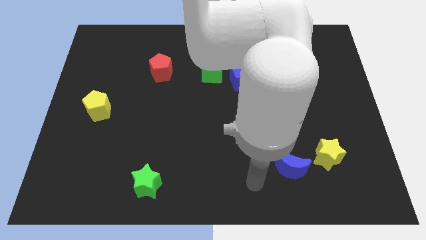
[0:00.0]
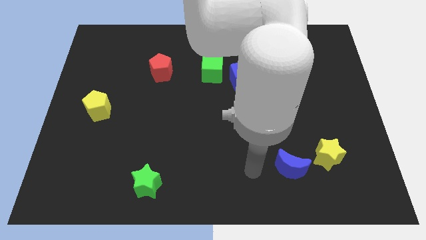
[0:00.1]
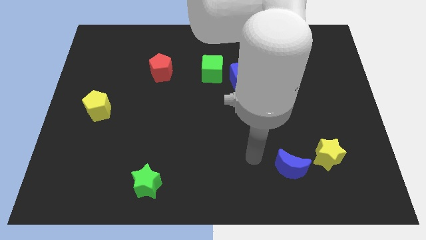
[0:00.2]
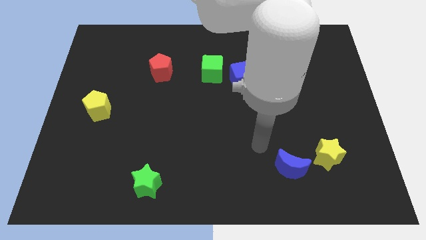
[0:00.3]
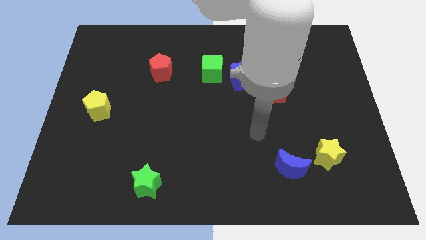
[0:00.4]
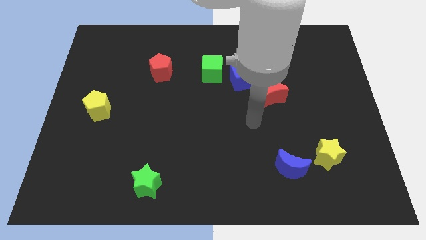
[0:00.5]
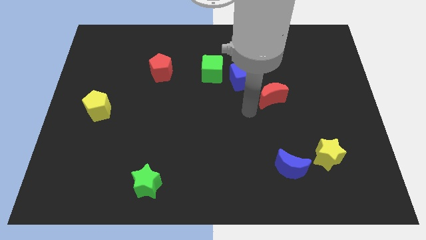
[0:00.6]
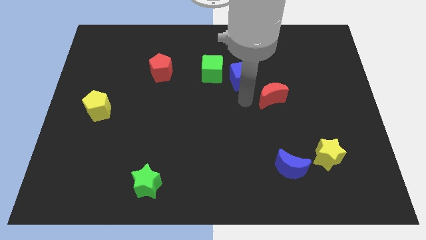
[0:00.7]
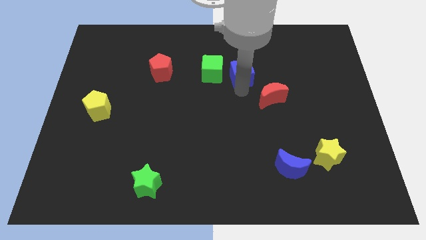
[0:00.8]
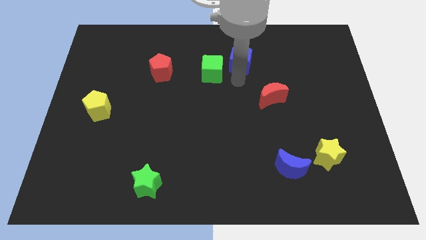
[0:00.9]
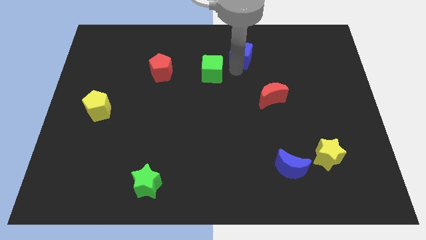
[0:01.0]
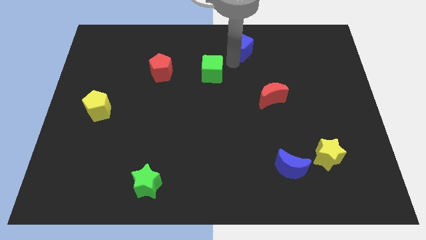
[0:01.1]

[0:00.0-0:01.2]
move the green cube away from the blue cube

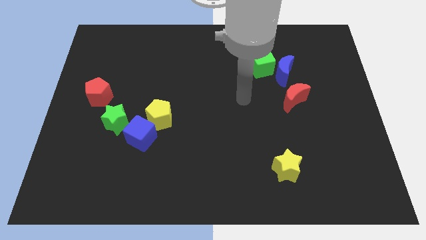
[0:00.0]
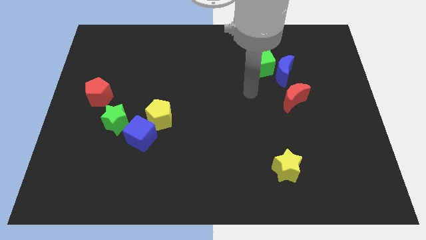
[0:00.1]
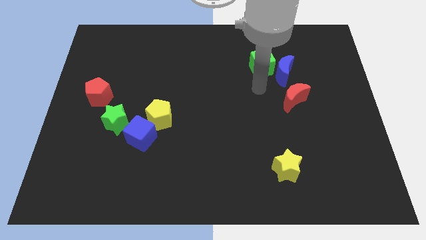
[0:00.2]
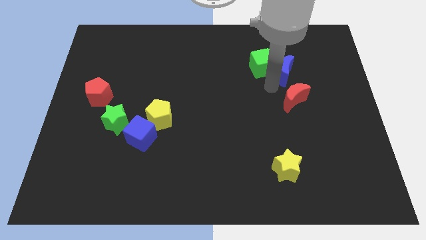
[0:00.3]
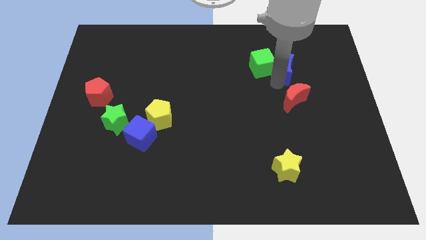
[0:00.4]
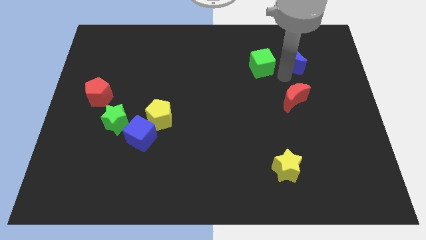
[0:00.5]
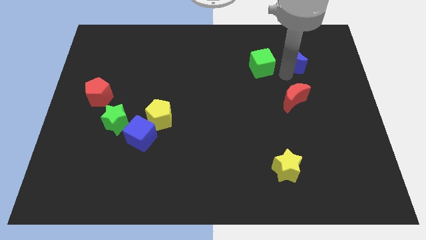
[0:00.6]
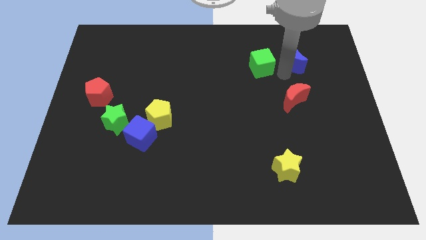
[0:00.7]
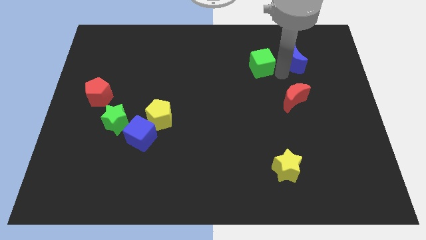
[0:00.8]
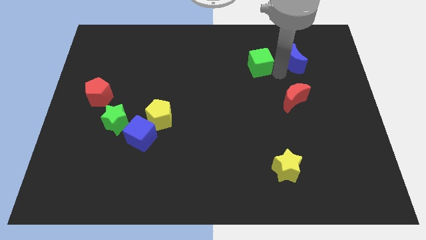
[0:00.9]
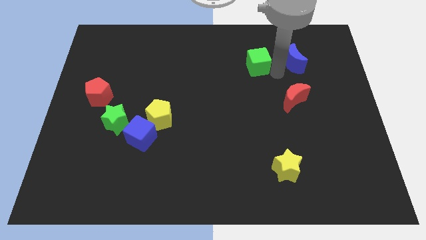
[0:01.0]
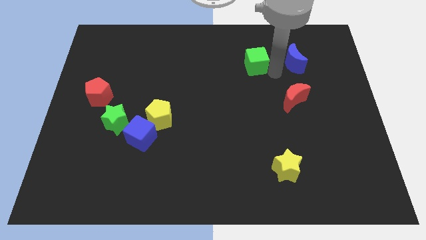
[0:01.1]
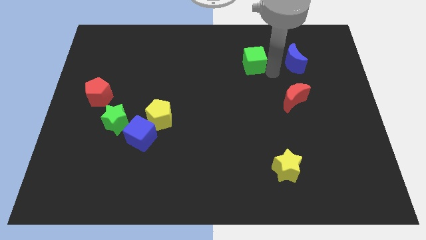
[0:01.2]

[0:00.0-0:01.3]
pull the green cube apart from the blue moon

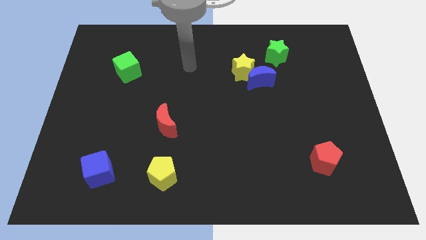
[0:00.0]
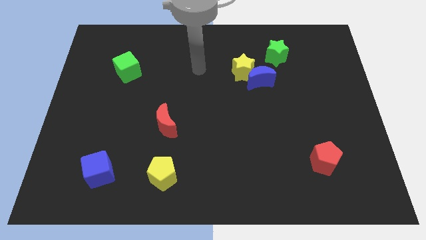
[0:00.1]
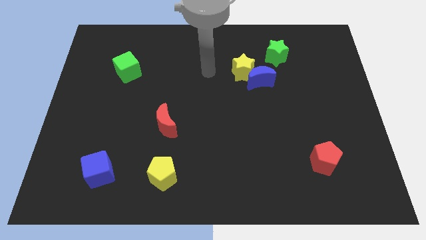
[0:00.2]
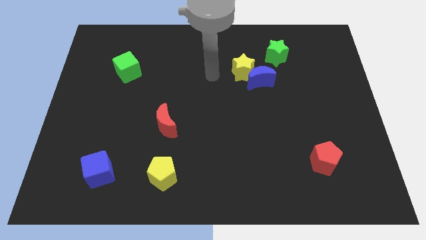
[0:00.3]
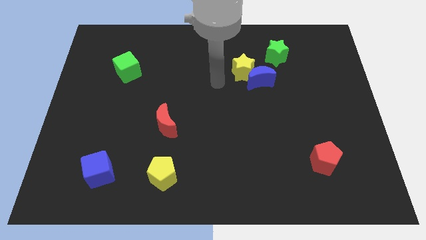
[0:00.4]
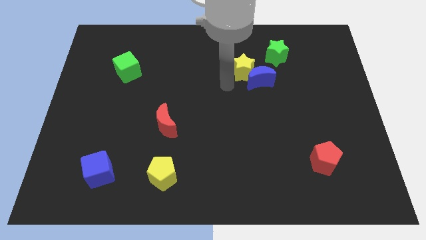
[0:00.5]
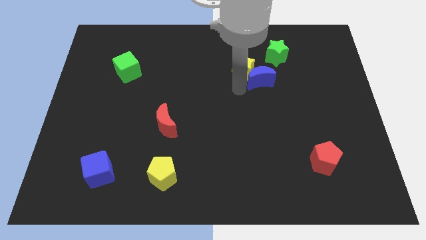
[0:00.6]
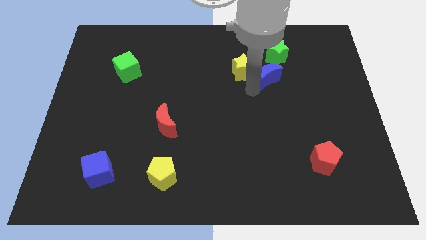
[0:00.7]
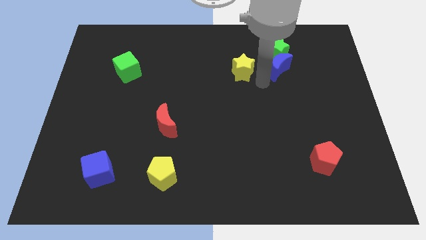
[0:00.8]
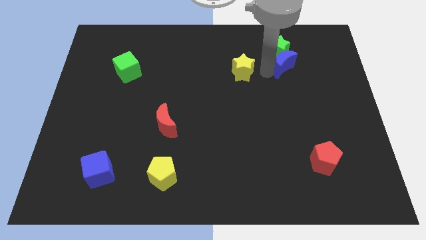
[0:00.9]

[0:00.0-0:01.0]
pull the yellow star apart from the blue moon

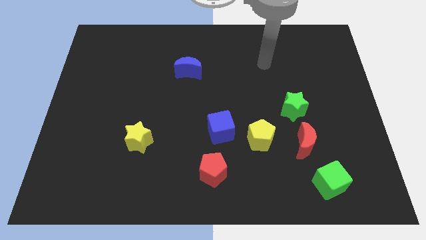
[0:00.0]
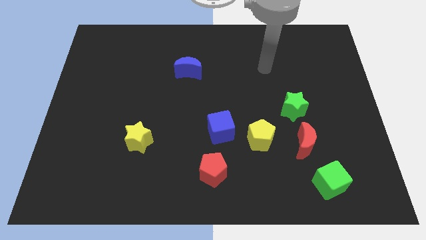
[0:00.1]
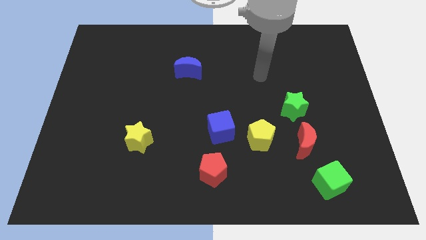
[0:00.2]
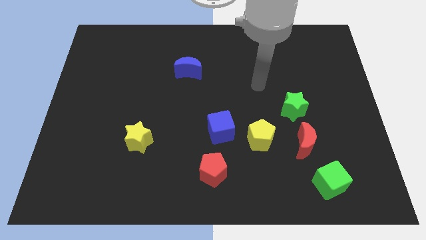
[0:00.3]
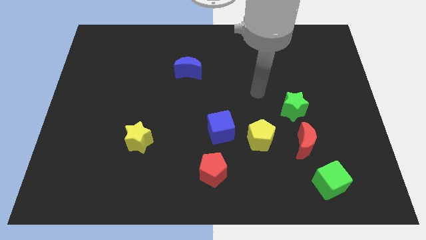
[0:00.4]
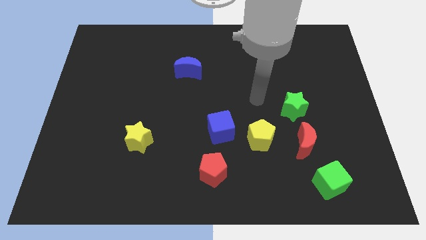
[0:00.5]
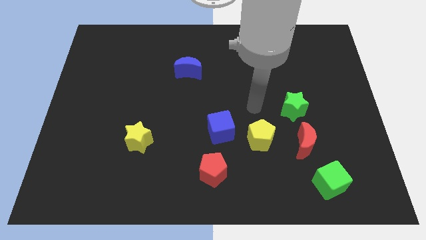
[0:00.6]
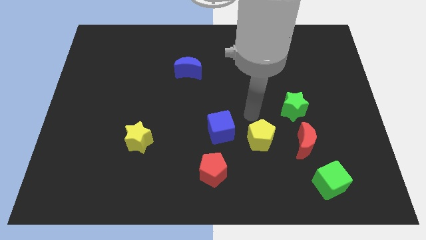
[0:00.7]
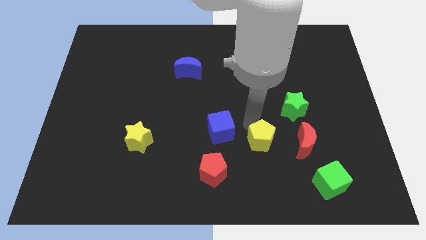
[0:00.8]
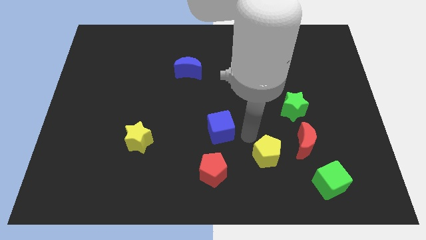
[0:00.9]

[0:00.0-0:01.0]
pull the blue cube apart from the yellow pentagon

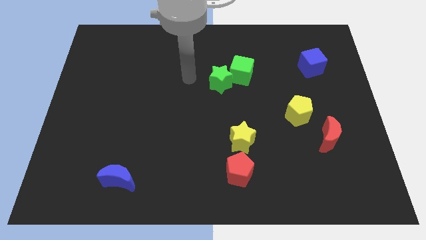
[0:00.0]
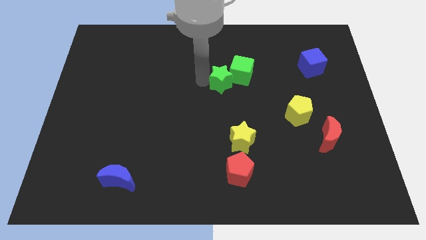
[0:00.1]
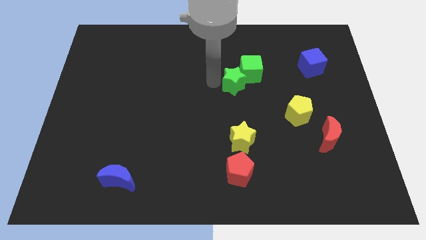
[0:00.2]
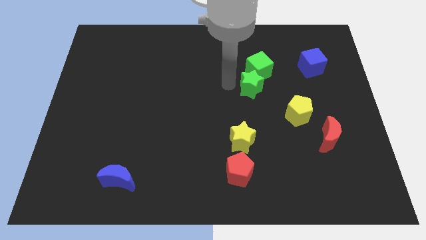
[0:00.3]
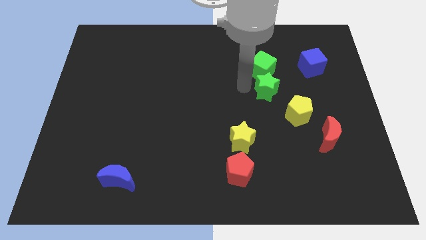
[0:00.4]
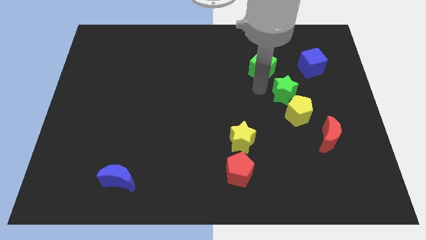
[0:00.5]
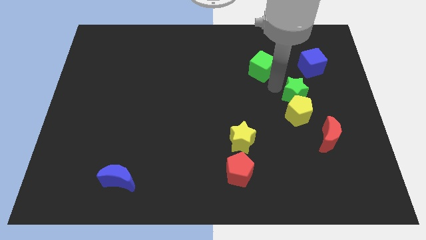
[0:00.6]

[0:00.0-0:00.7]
move the green cube away from the green star

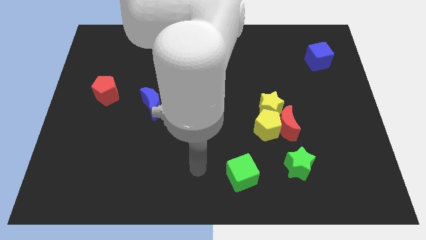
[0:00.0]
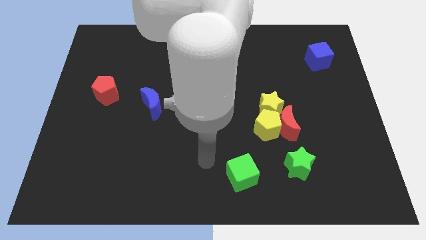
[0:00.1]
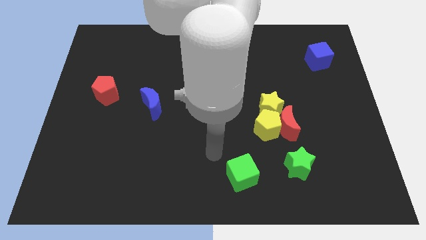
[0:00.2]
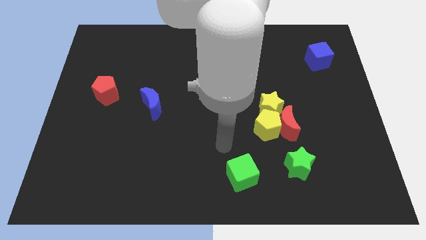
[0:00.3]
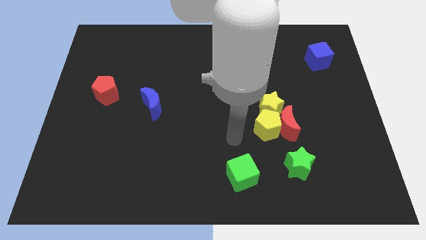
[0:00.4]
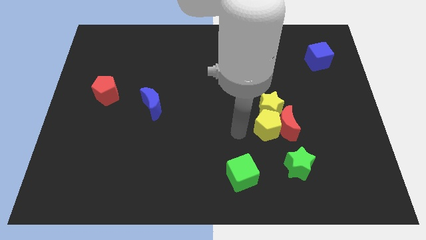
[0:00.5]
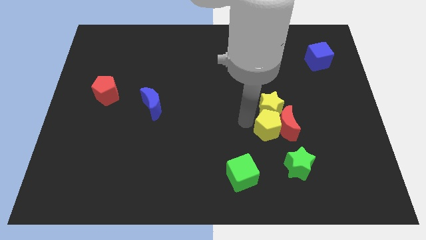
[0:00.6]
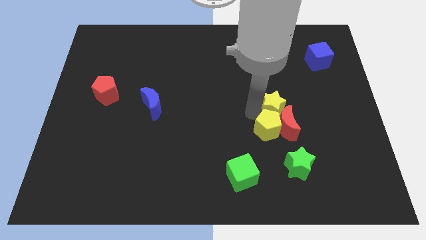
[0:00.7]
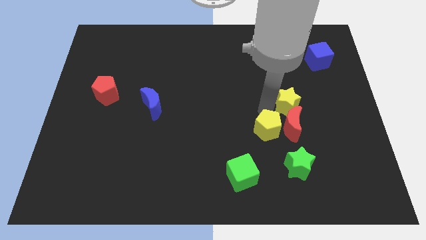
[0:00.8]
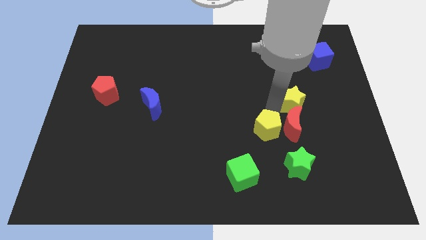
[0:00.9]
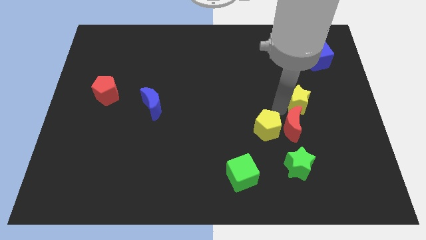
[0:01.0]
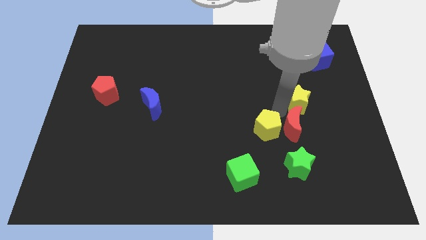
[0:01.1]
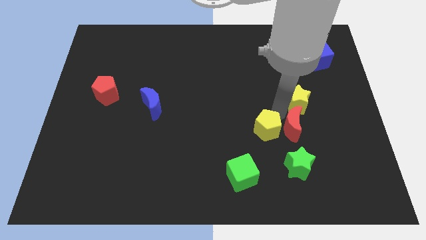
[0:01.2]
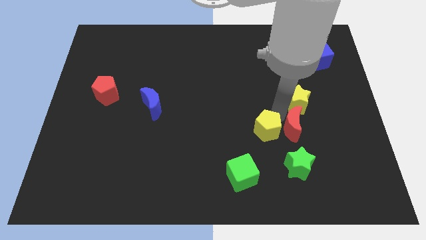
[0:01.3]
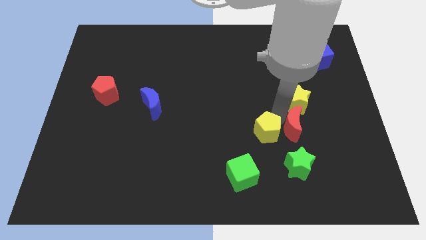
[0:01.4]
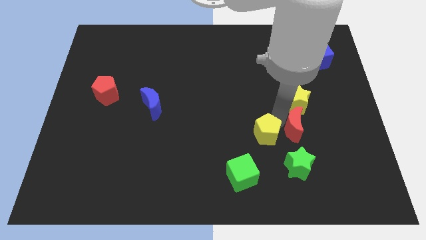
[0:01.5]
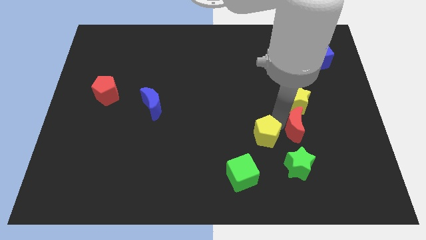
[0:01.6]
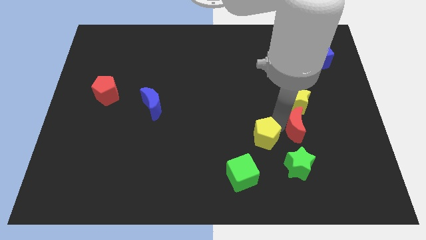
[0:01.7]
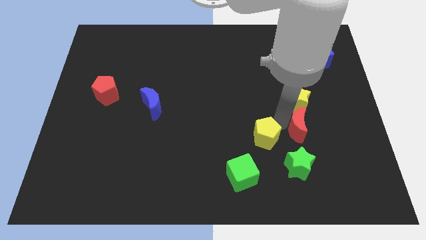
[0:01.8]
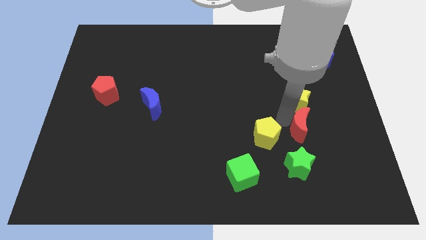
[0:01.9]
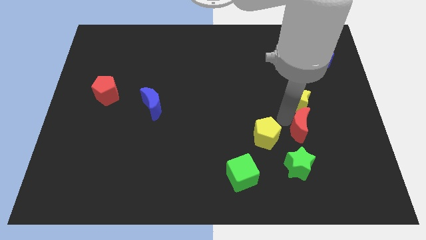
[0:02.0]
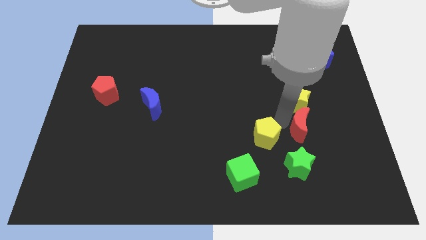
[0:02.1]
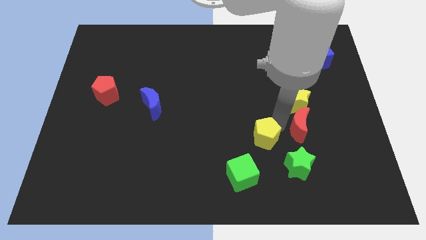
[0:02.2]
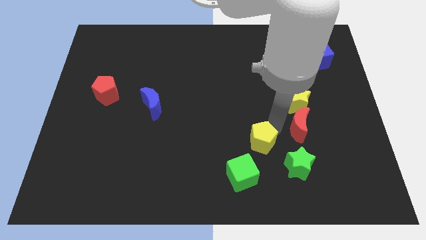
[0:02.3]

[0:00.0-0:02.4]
separate the yellow pentagon from the red moon and yellow star

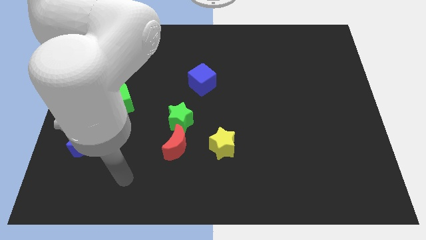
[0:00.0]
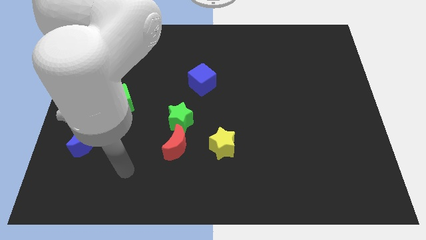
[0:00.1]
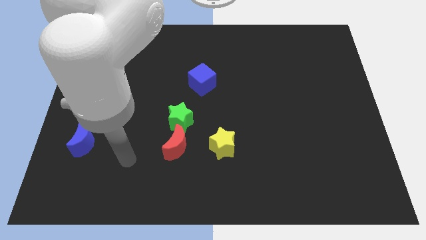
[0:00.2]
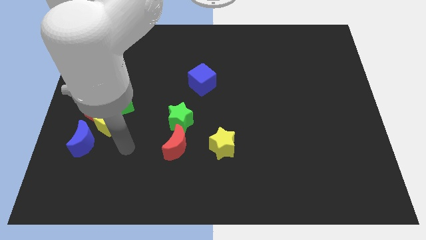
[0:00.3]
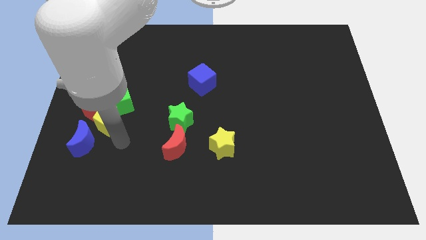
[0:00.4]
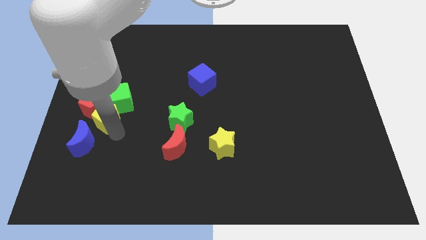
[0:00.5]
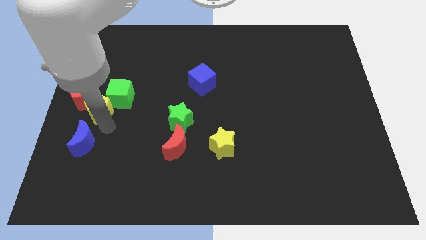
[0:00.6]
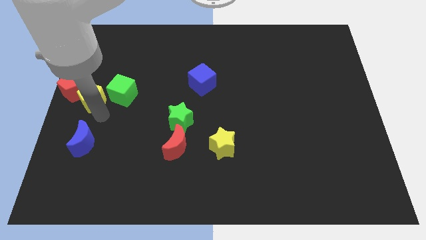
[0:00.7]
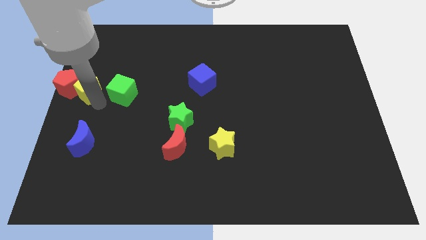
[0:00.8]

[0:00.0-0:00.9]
move the green cube away from the red pentagon and yellow pentagon

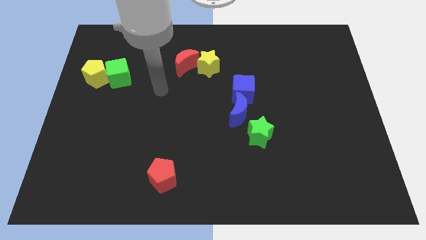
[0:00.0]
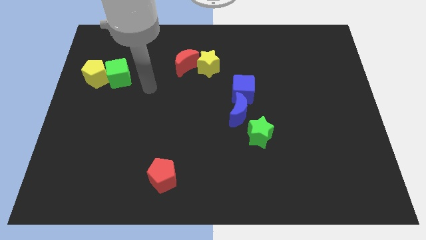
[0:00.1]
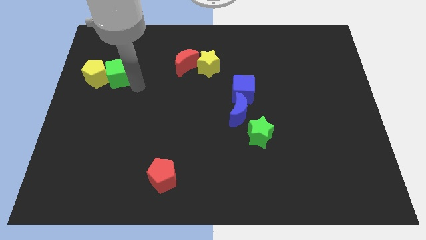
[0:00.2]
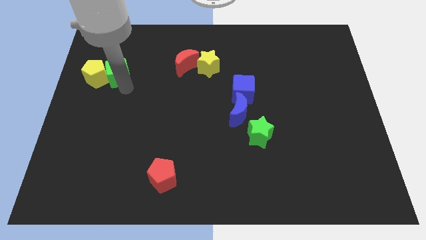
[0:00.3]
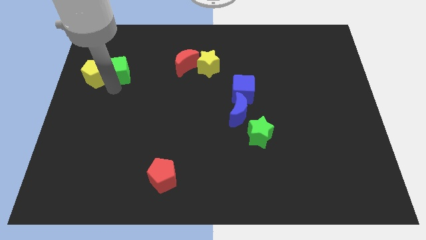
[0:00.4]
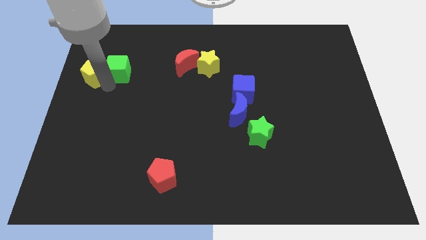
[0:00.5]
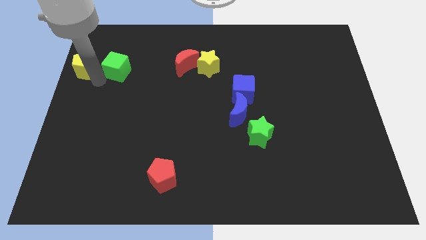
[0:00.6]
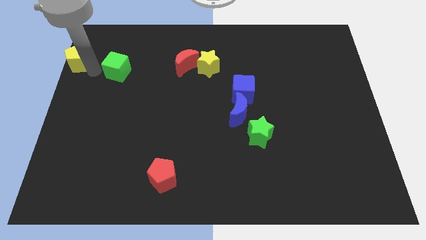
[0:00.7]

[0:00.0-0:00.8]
move the green cube away from the yellow pentagon

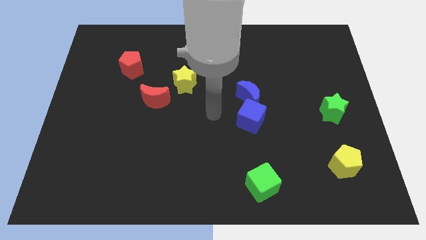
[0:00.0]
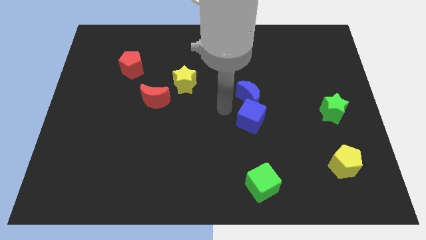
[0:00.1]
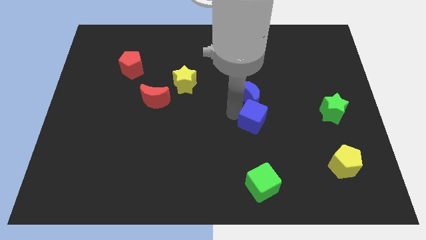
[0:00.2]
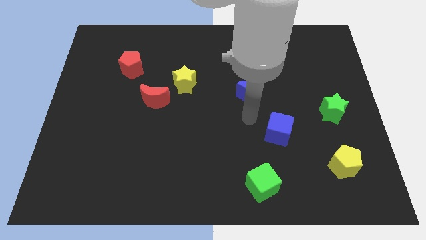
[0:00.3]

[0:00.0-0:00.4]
move the blue moon away from the blue cube
